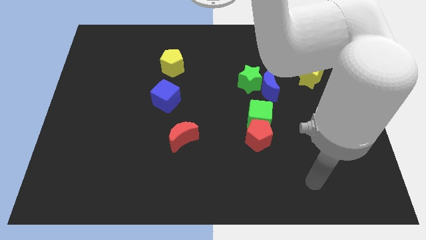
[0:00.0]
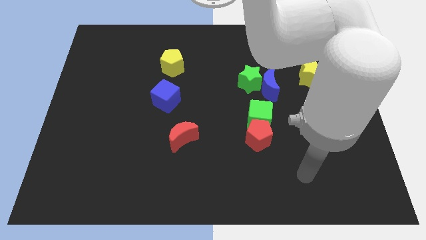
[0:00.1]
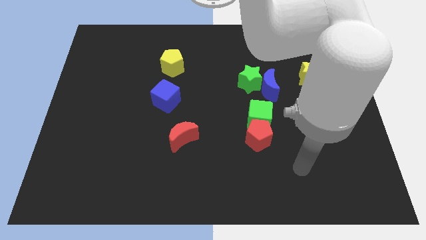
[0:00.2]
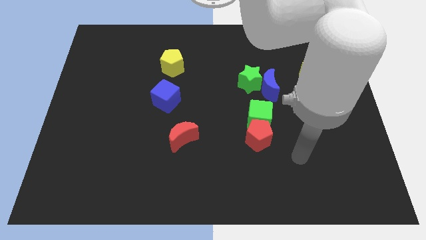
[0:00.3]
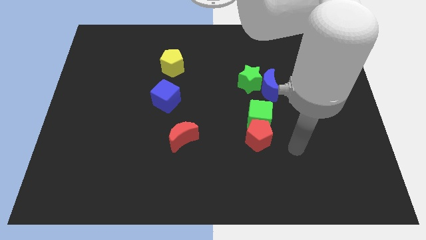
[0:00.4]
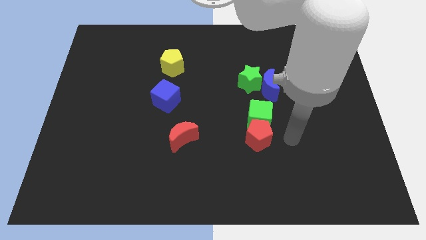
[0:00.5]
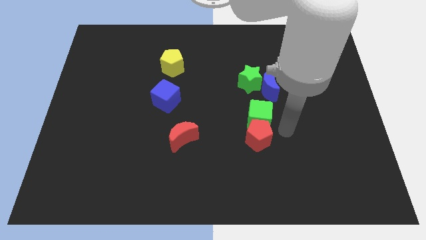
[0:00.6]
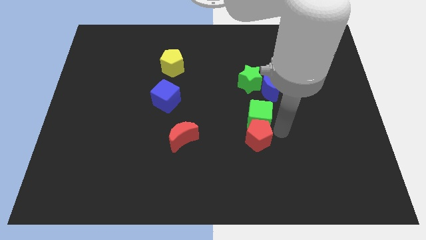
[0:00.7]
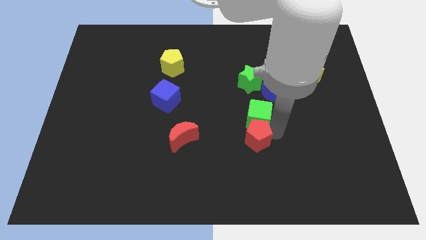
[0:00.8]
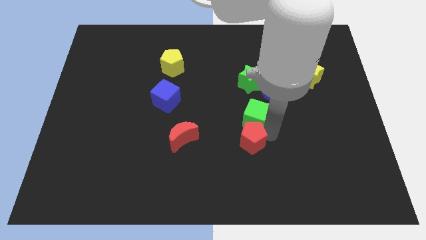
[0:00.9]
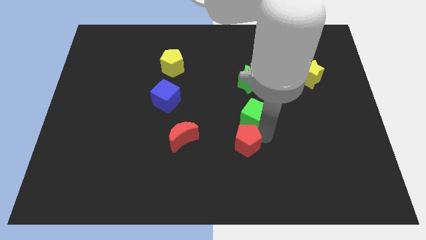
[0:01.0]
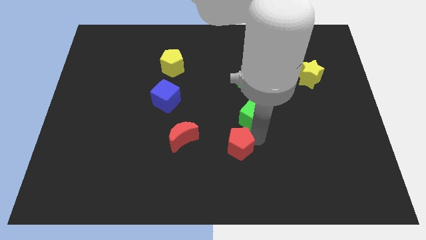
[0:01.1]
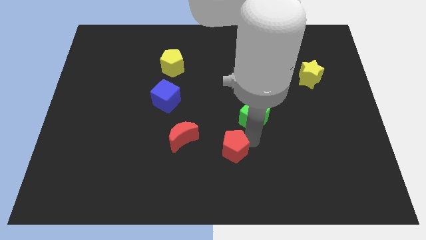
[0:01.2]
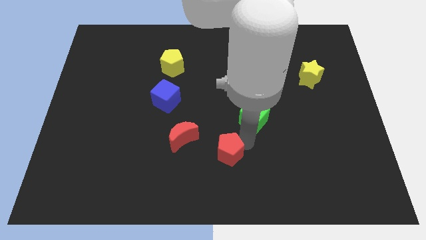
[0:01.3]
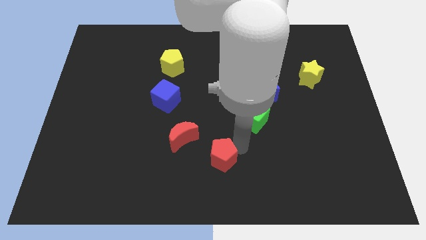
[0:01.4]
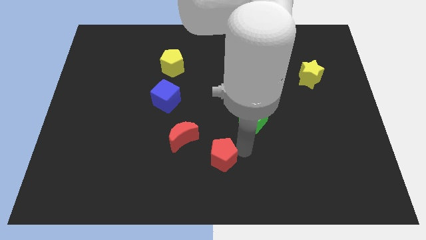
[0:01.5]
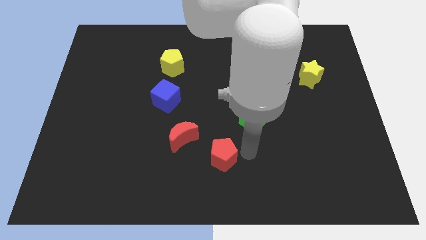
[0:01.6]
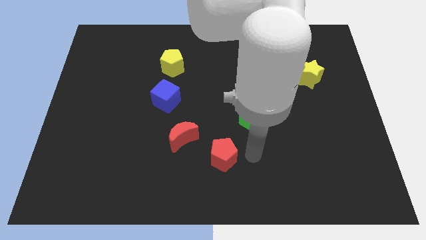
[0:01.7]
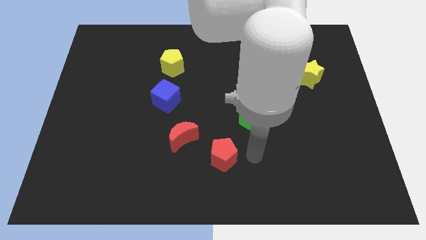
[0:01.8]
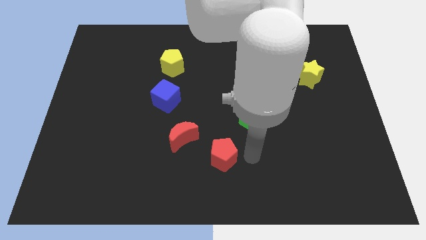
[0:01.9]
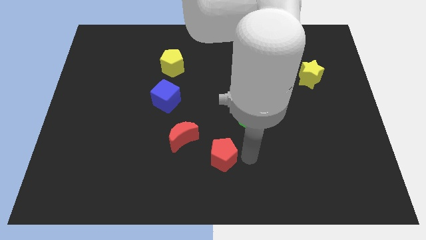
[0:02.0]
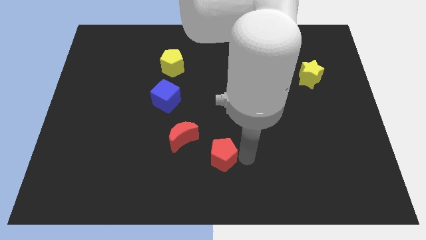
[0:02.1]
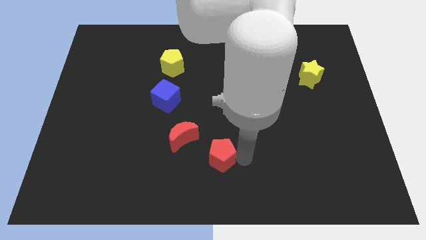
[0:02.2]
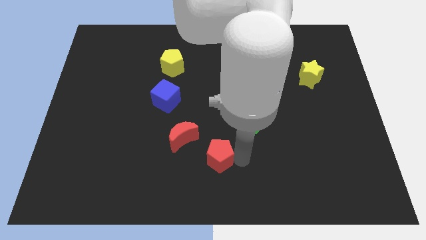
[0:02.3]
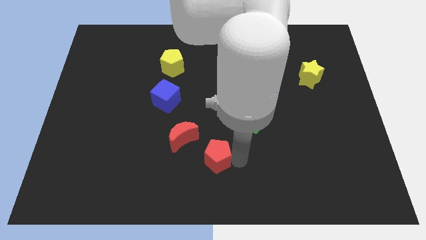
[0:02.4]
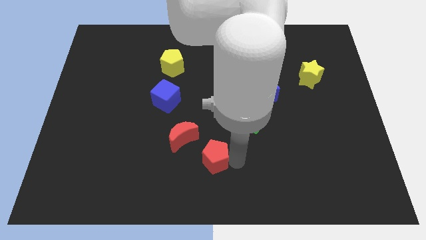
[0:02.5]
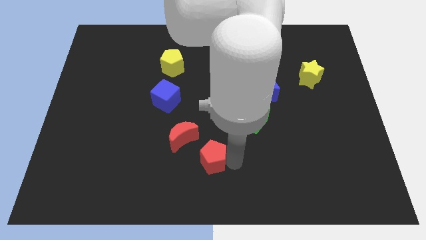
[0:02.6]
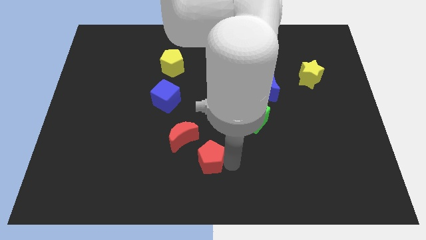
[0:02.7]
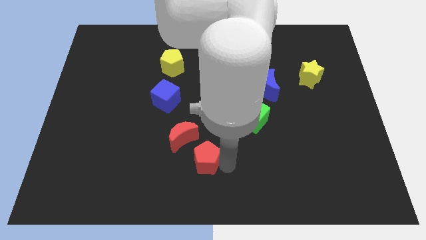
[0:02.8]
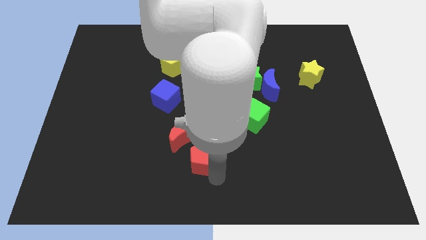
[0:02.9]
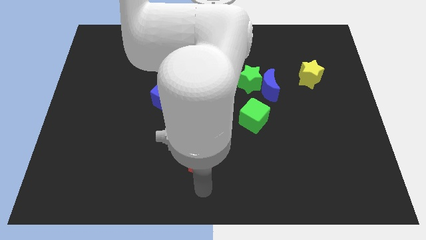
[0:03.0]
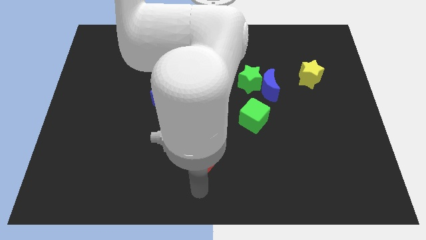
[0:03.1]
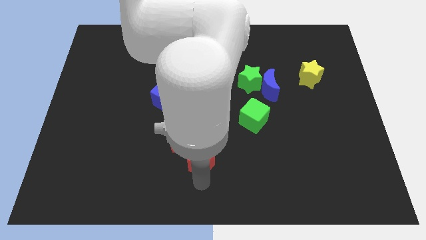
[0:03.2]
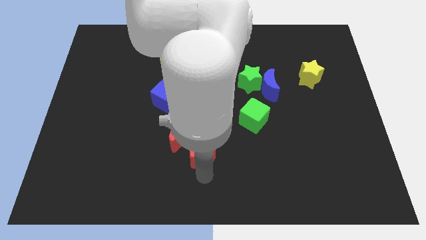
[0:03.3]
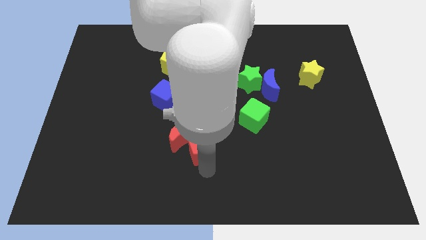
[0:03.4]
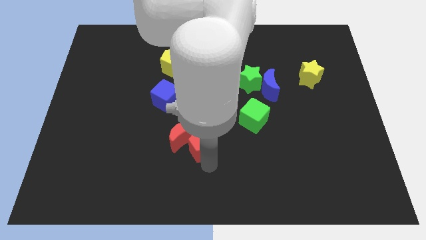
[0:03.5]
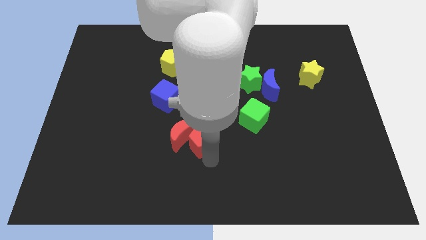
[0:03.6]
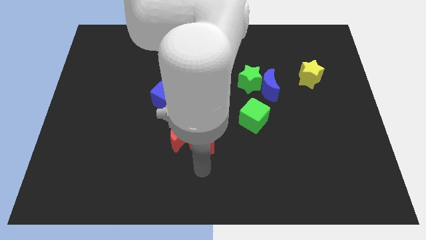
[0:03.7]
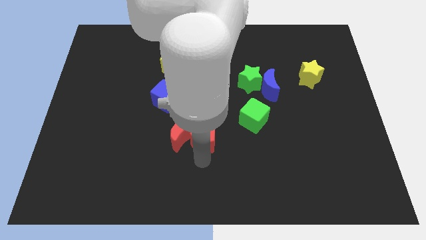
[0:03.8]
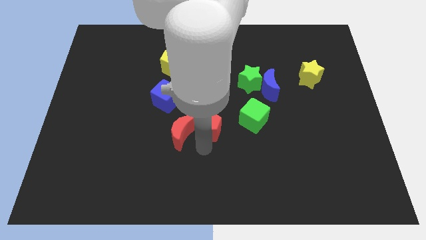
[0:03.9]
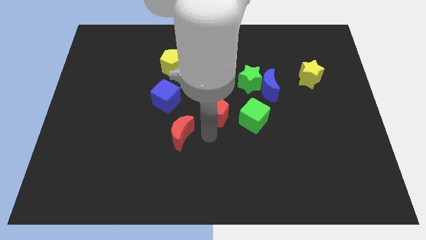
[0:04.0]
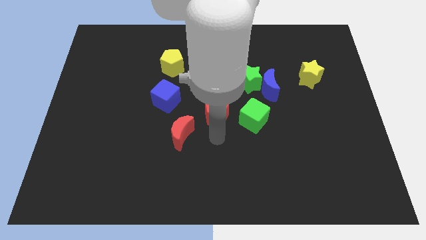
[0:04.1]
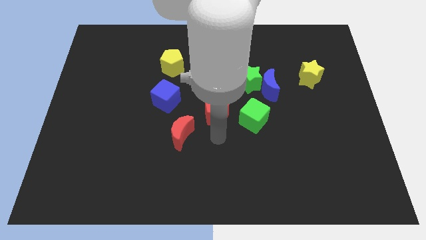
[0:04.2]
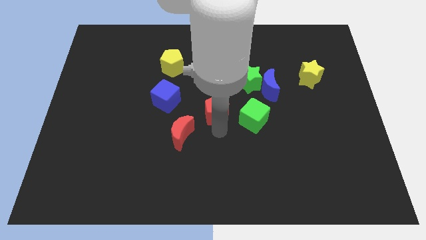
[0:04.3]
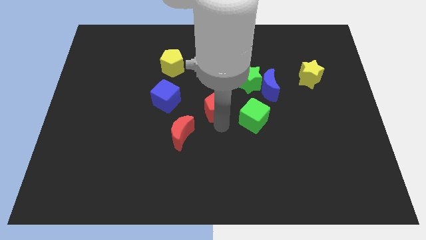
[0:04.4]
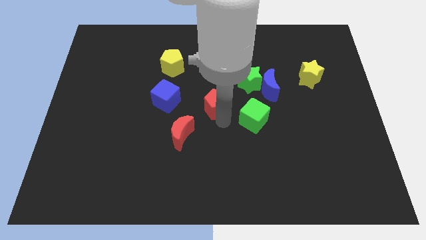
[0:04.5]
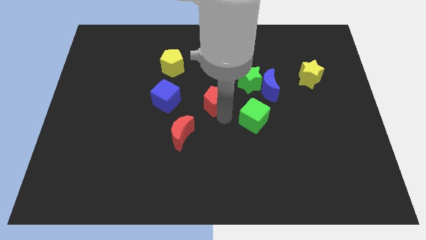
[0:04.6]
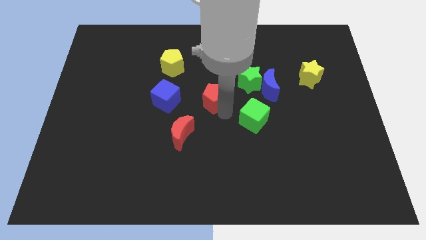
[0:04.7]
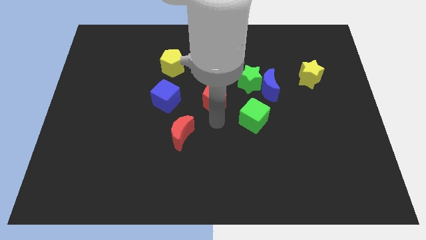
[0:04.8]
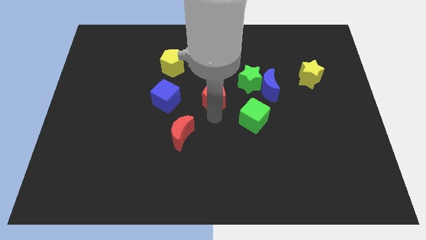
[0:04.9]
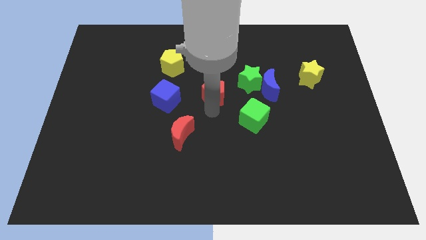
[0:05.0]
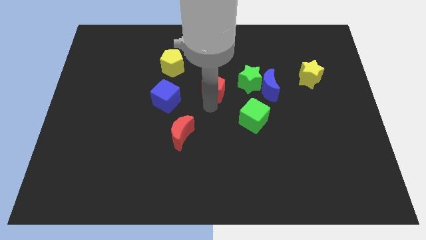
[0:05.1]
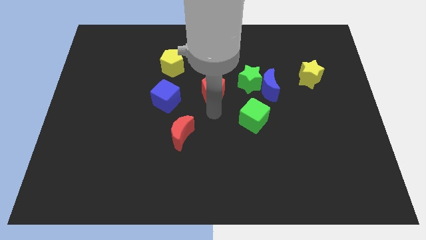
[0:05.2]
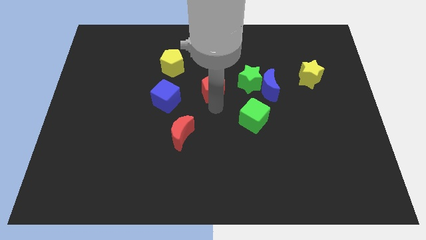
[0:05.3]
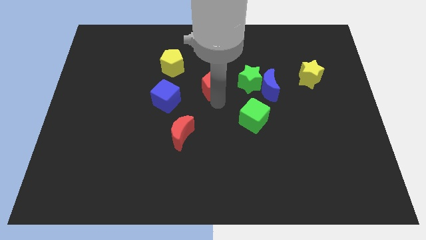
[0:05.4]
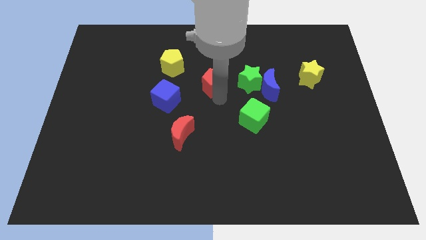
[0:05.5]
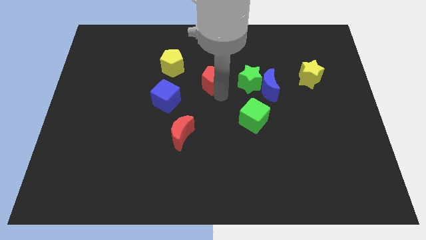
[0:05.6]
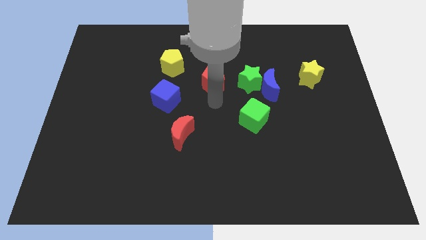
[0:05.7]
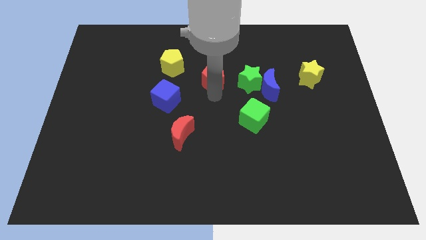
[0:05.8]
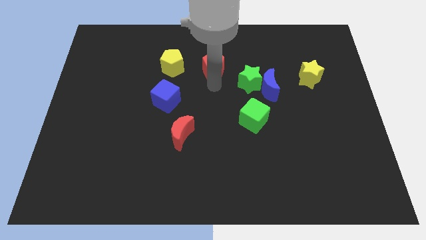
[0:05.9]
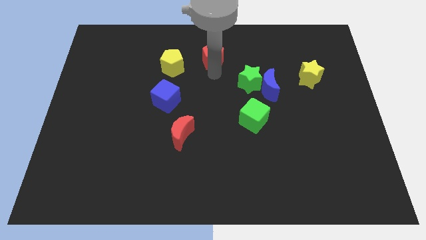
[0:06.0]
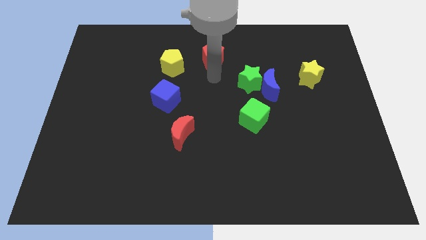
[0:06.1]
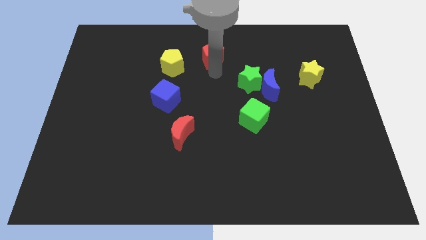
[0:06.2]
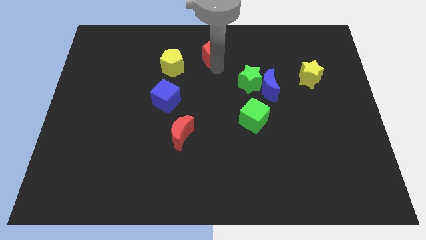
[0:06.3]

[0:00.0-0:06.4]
slide the red pentagon to the towards your base
